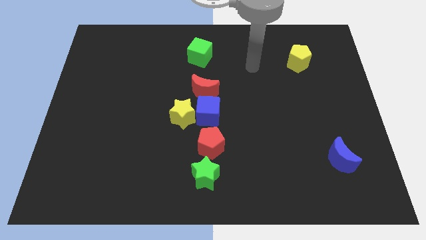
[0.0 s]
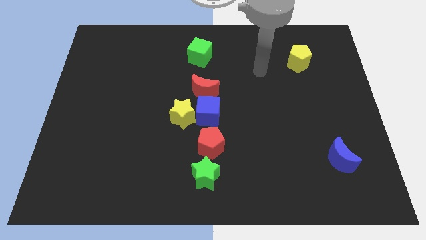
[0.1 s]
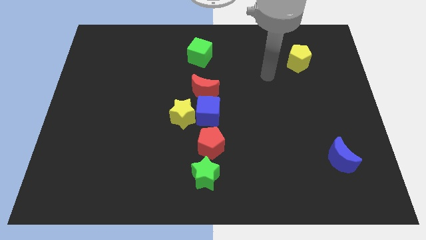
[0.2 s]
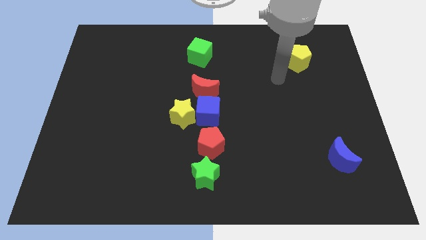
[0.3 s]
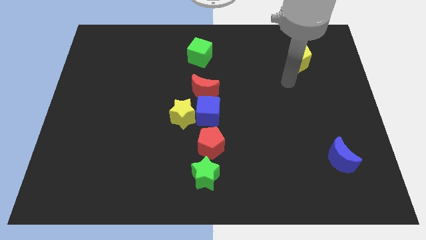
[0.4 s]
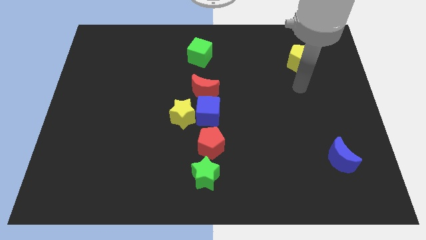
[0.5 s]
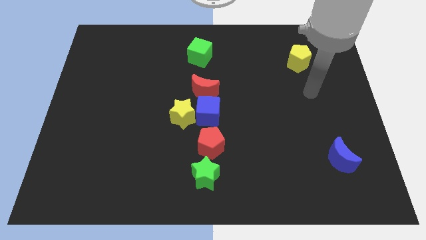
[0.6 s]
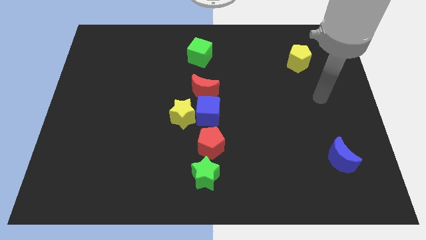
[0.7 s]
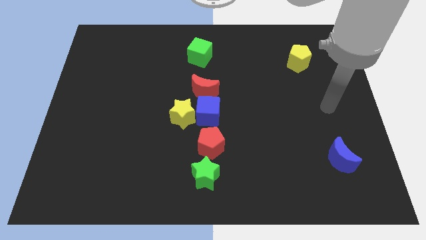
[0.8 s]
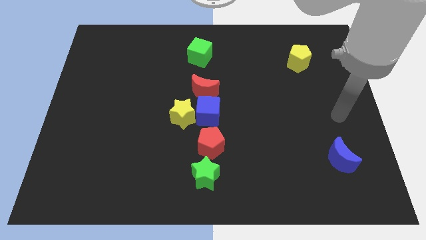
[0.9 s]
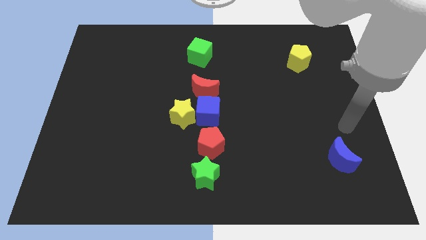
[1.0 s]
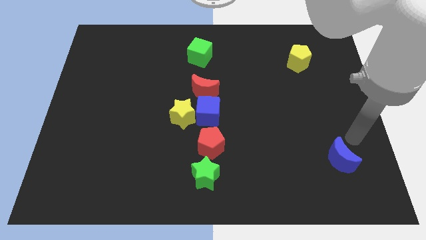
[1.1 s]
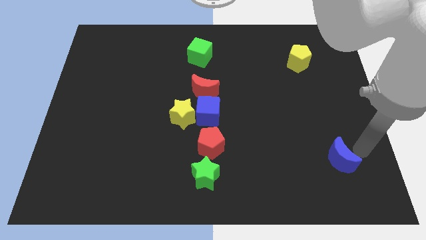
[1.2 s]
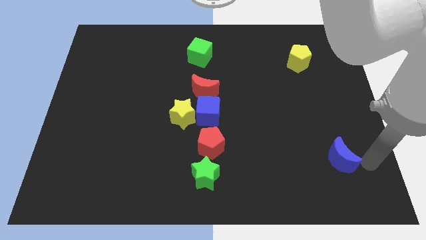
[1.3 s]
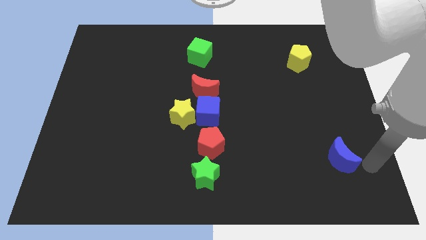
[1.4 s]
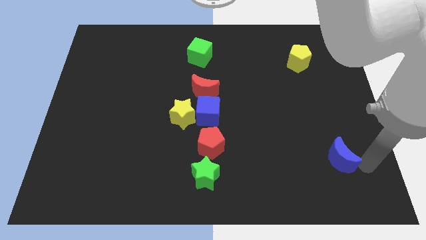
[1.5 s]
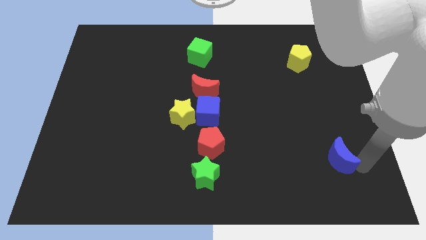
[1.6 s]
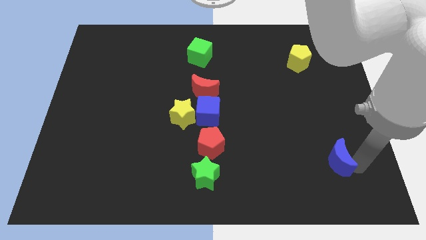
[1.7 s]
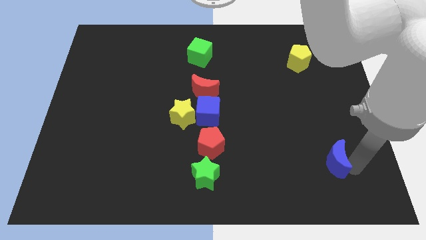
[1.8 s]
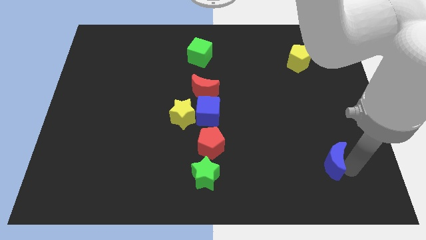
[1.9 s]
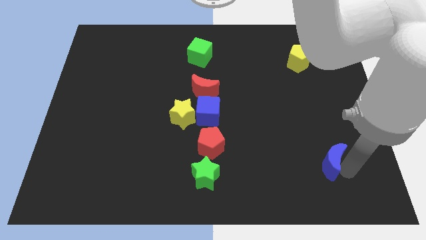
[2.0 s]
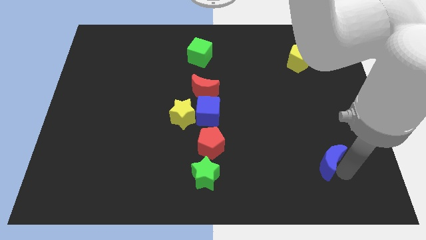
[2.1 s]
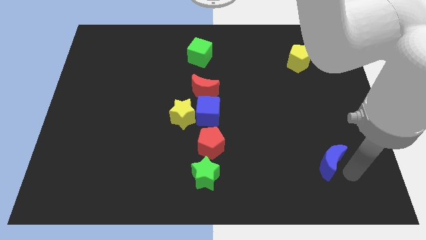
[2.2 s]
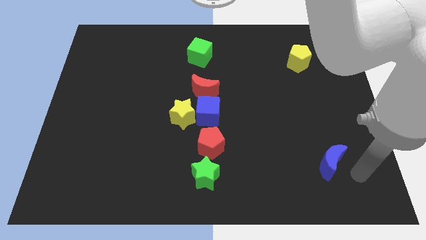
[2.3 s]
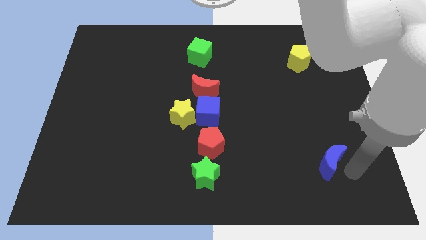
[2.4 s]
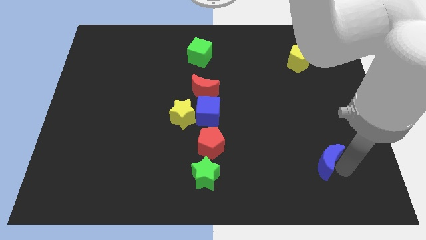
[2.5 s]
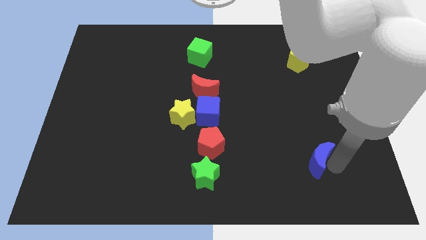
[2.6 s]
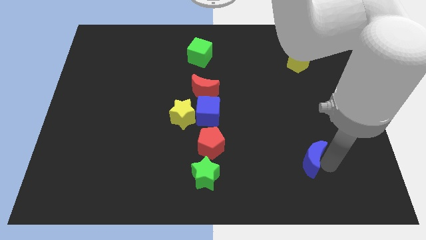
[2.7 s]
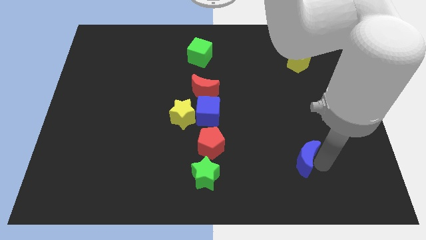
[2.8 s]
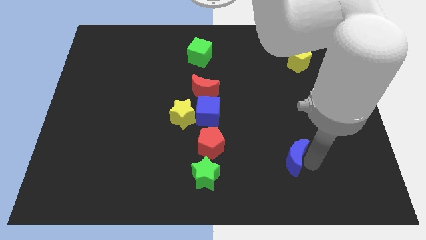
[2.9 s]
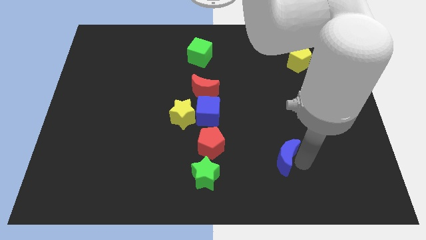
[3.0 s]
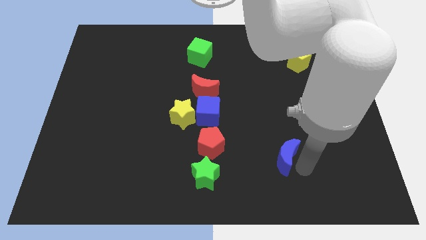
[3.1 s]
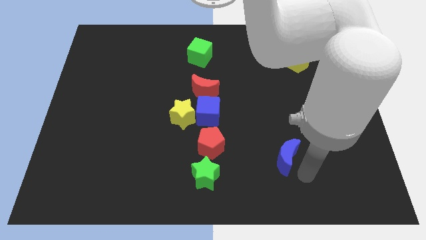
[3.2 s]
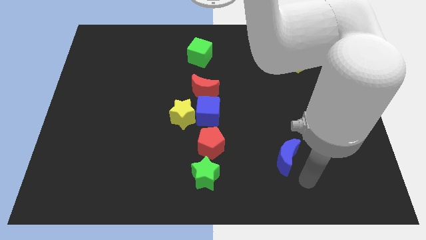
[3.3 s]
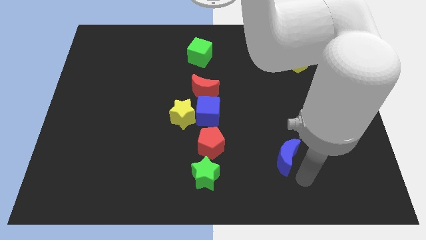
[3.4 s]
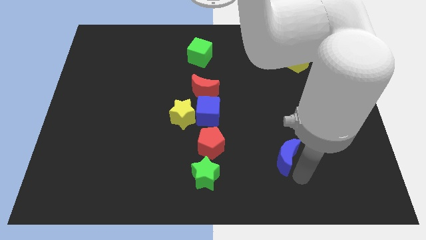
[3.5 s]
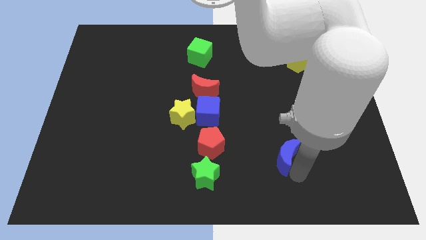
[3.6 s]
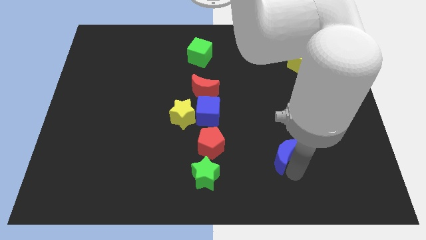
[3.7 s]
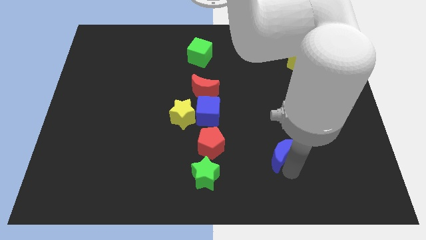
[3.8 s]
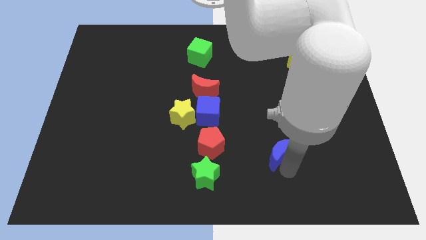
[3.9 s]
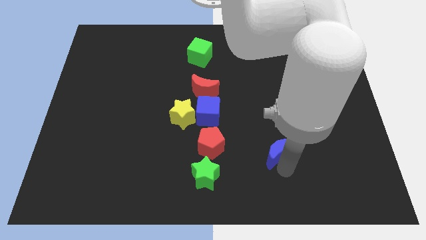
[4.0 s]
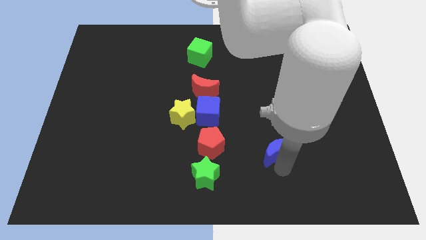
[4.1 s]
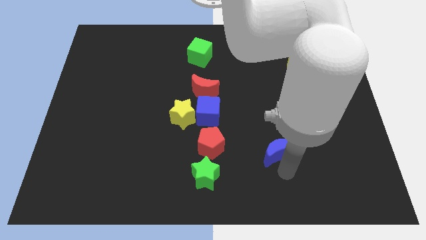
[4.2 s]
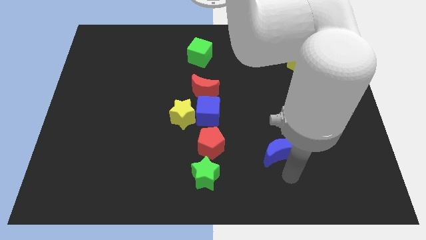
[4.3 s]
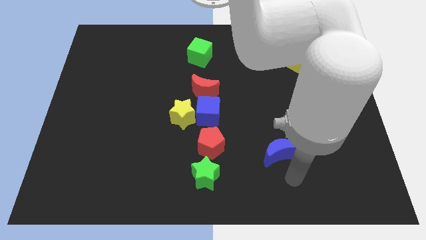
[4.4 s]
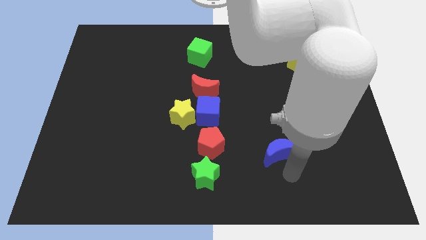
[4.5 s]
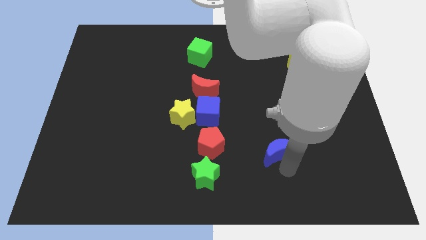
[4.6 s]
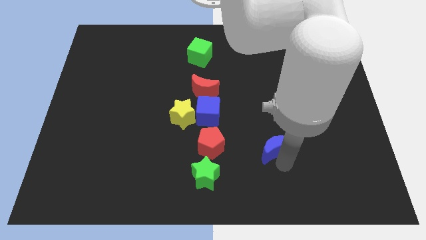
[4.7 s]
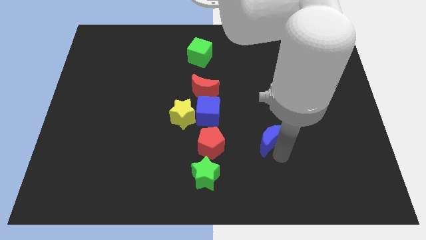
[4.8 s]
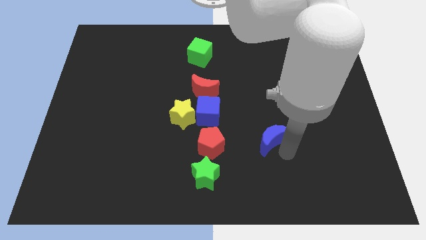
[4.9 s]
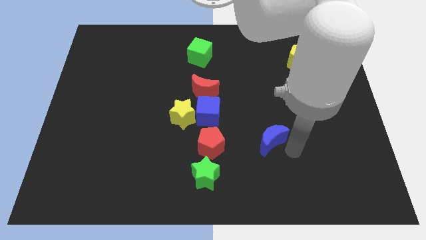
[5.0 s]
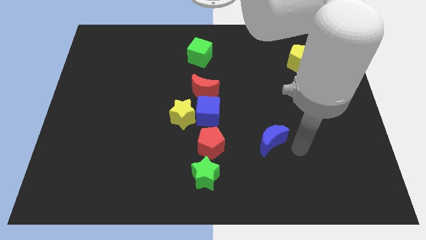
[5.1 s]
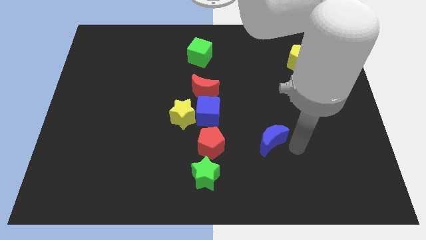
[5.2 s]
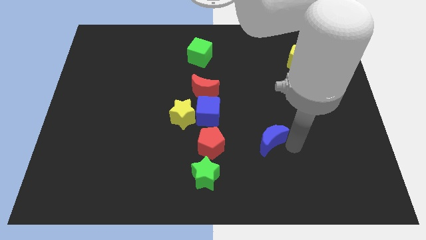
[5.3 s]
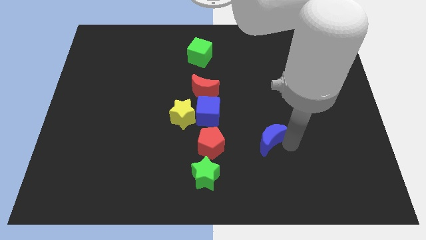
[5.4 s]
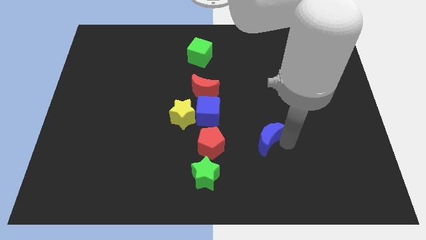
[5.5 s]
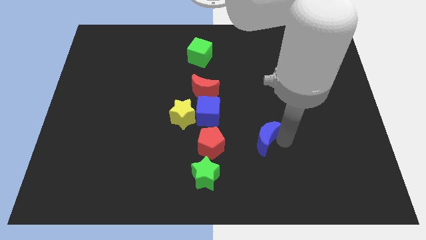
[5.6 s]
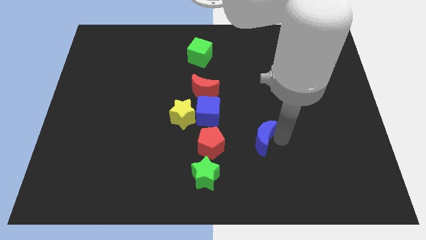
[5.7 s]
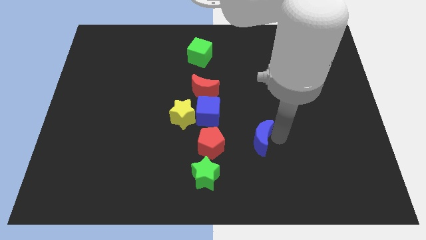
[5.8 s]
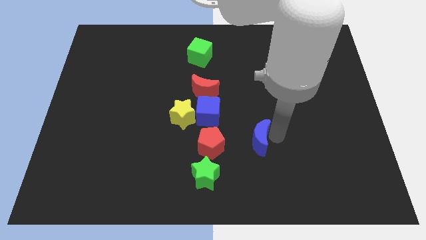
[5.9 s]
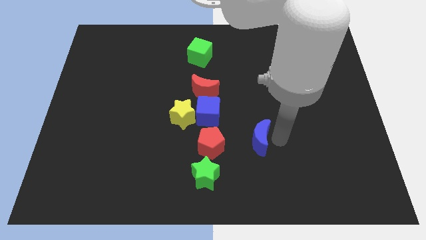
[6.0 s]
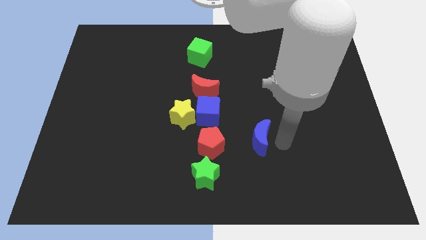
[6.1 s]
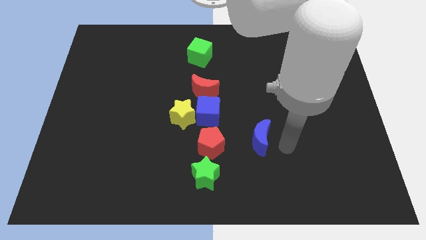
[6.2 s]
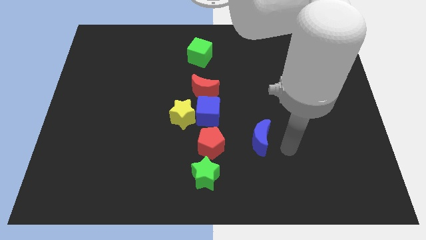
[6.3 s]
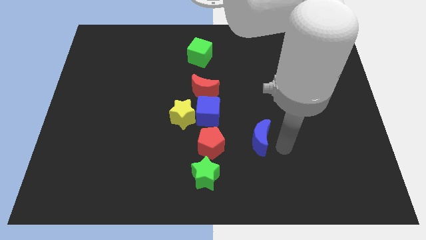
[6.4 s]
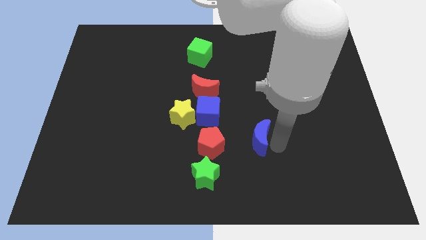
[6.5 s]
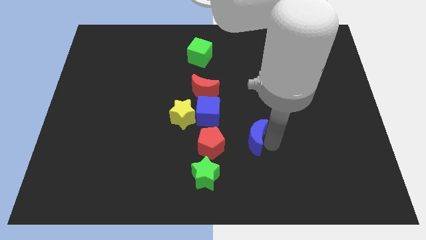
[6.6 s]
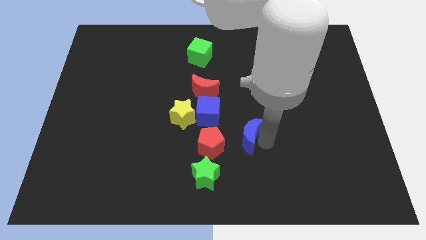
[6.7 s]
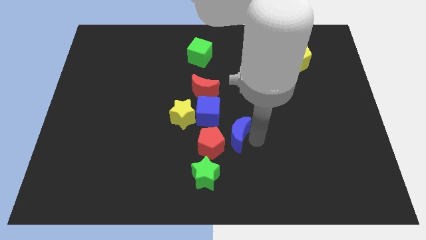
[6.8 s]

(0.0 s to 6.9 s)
move the blue moon left

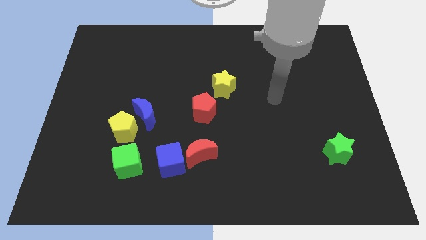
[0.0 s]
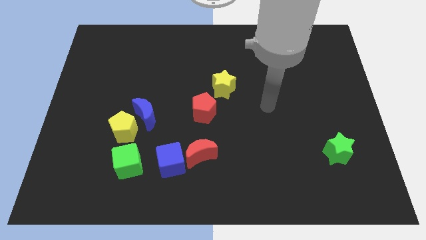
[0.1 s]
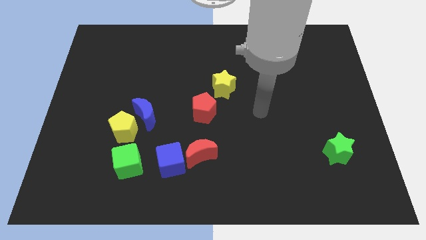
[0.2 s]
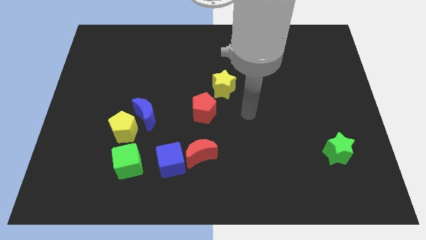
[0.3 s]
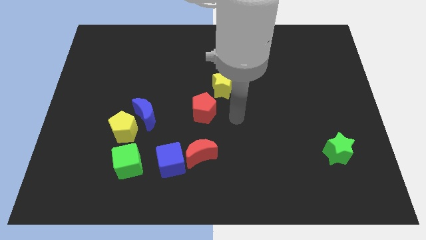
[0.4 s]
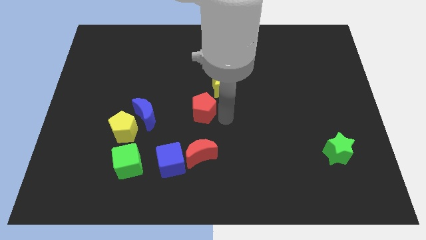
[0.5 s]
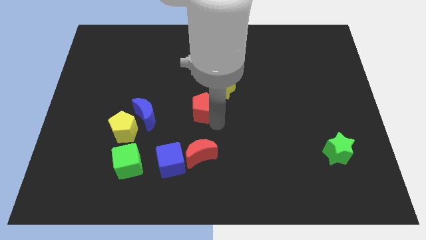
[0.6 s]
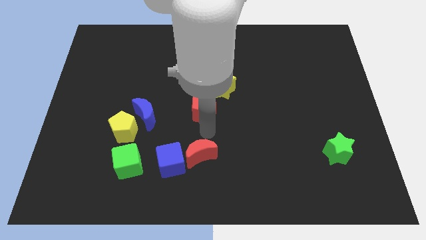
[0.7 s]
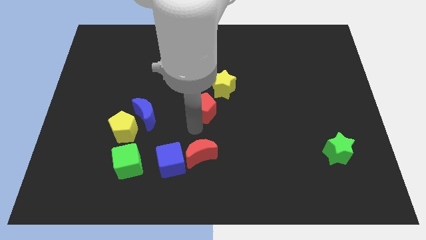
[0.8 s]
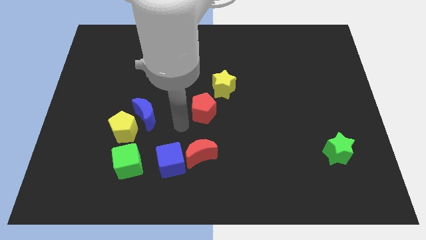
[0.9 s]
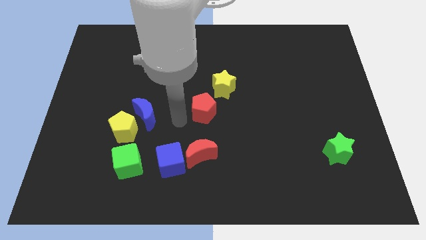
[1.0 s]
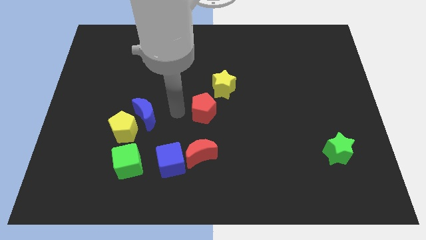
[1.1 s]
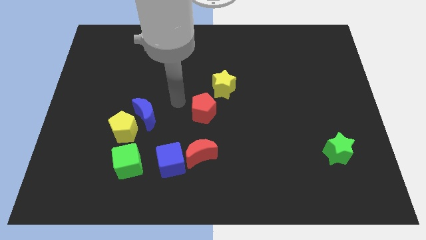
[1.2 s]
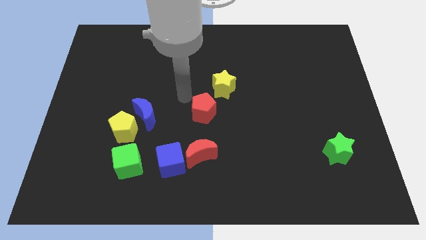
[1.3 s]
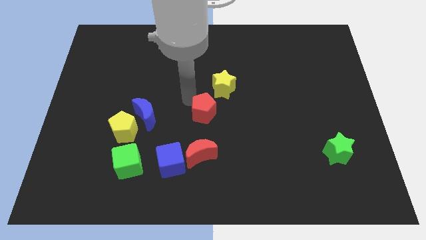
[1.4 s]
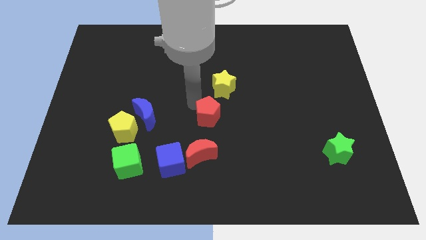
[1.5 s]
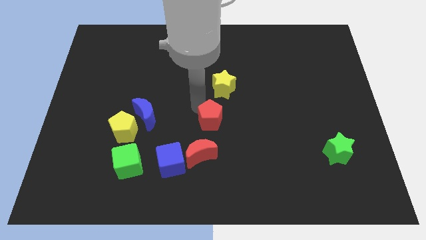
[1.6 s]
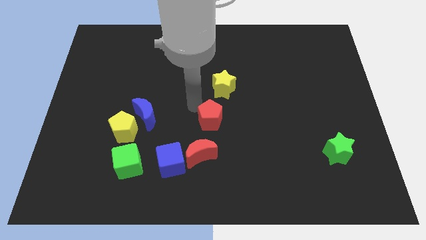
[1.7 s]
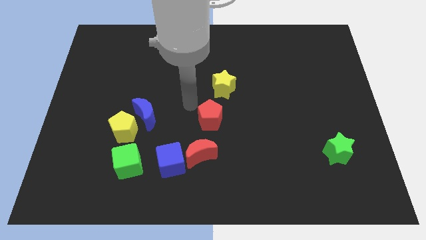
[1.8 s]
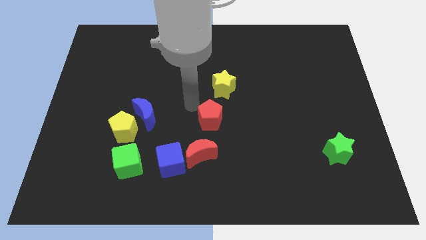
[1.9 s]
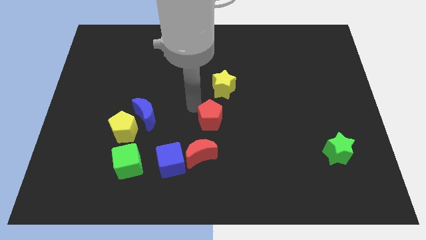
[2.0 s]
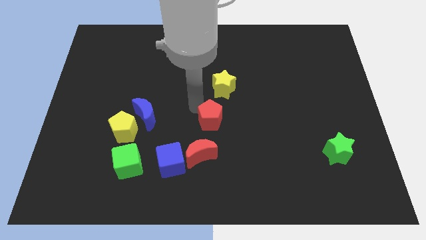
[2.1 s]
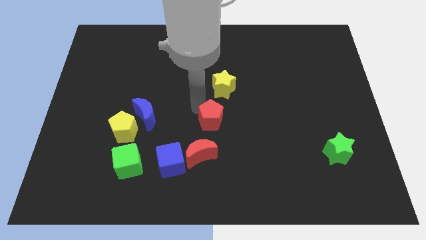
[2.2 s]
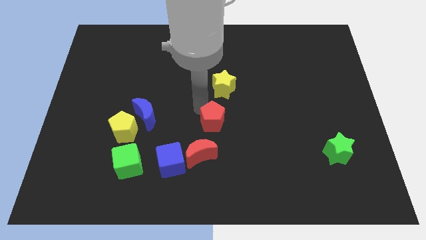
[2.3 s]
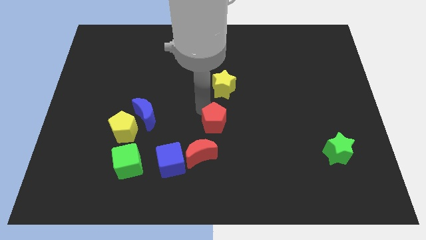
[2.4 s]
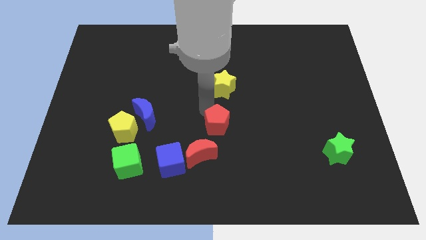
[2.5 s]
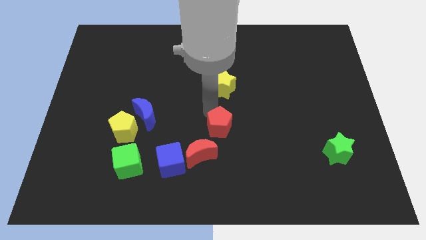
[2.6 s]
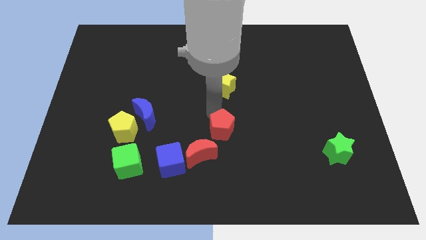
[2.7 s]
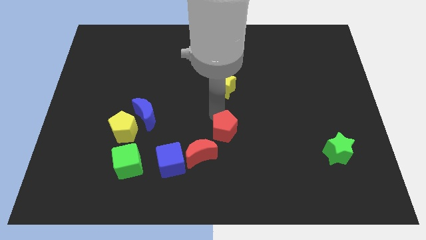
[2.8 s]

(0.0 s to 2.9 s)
slightly push the red pentagon down and right
